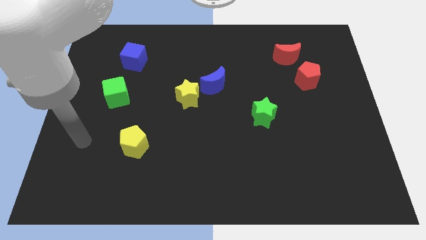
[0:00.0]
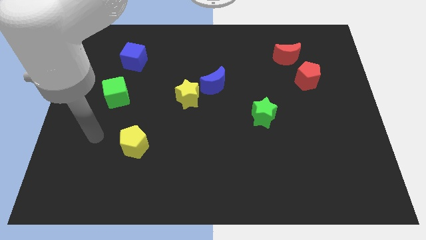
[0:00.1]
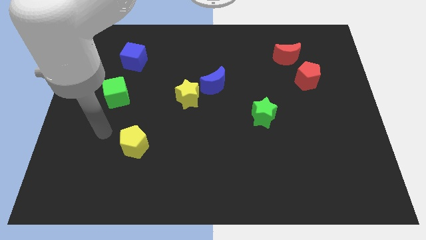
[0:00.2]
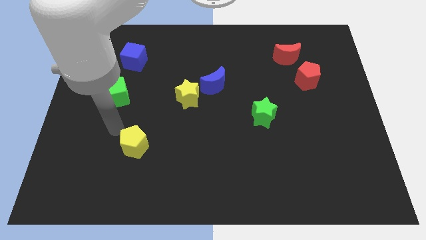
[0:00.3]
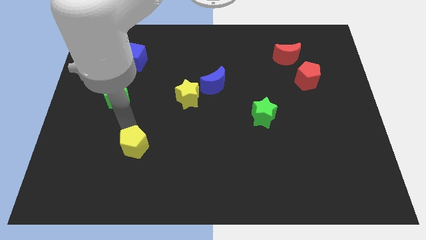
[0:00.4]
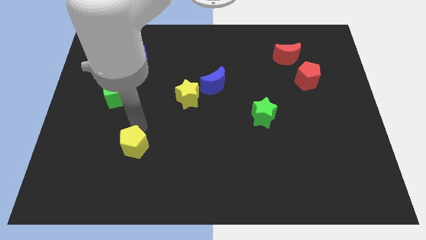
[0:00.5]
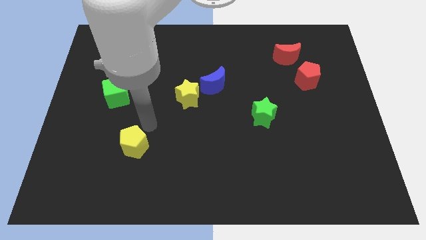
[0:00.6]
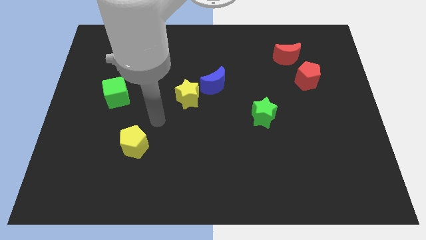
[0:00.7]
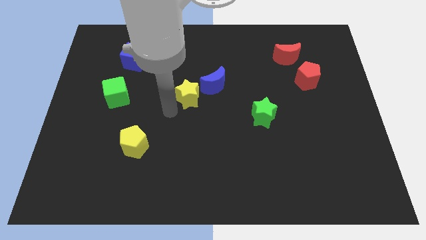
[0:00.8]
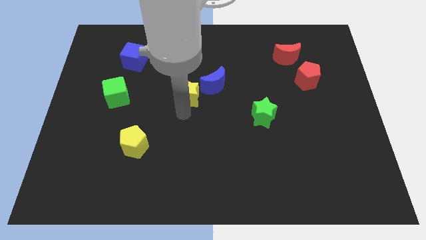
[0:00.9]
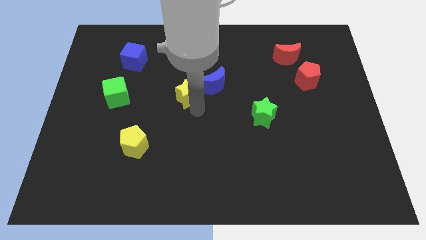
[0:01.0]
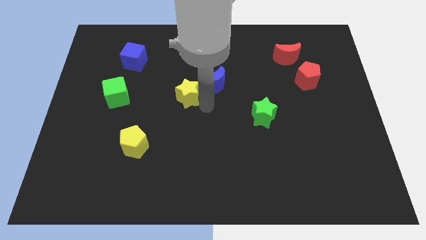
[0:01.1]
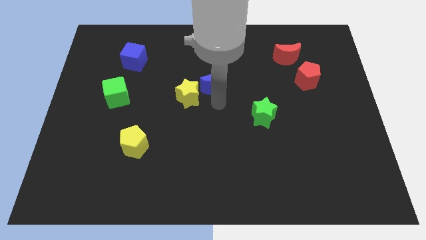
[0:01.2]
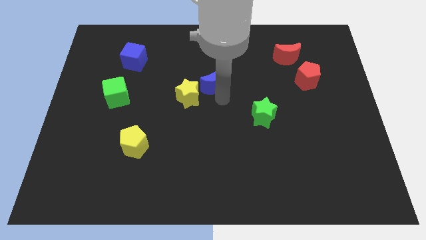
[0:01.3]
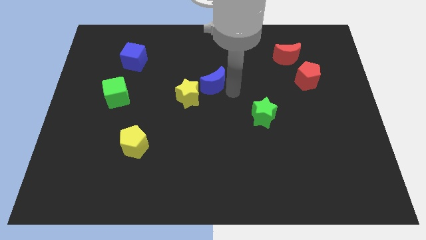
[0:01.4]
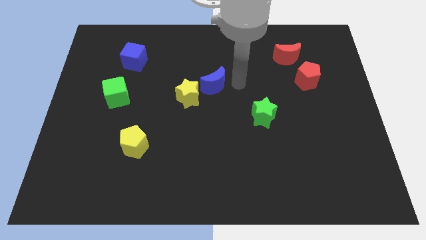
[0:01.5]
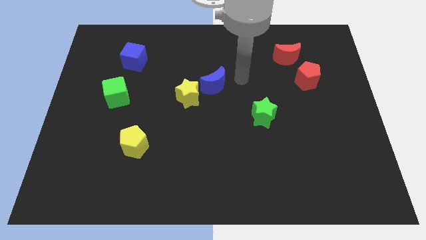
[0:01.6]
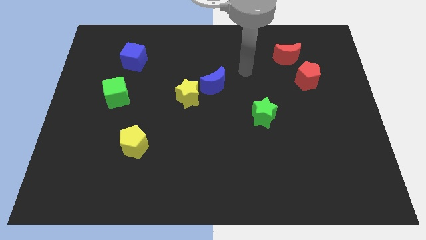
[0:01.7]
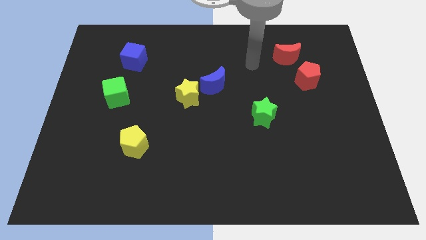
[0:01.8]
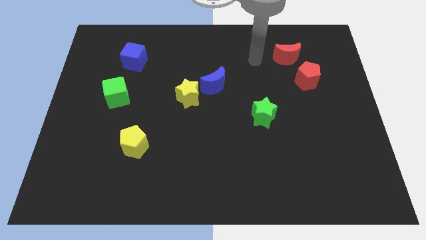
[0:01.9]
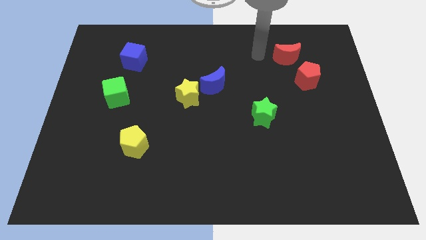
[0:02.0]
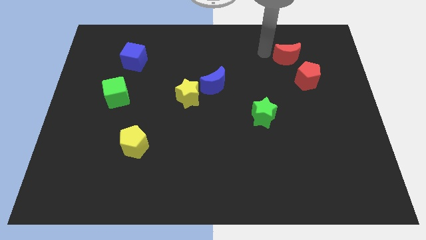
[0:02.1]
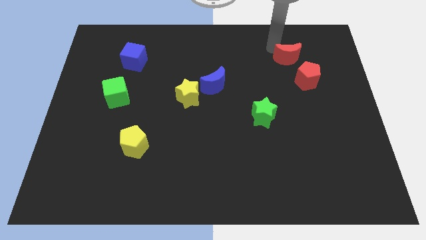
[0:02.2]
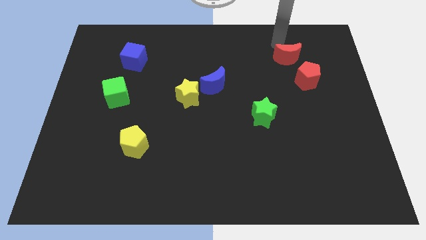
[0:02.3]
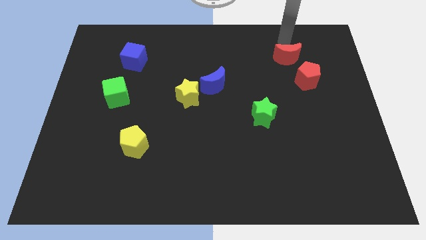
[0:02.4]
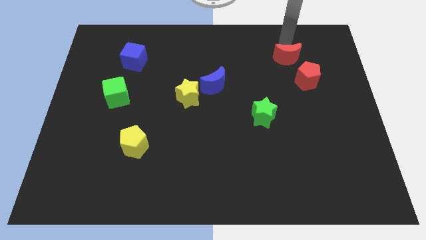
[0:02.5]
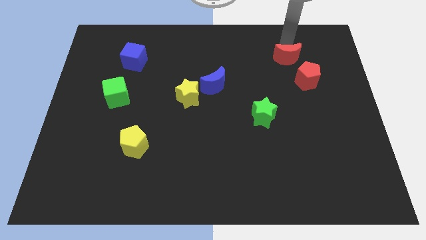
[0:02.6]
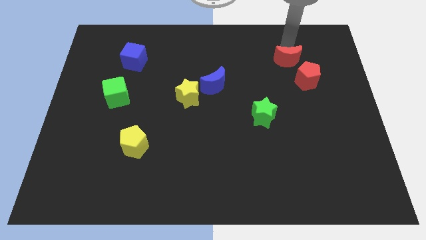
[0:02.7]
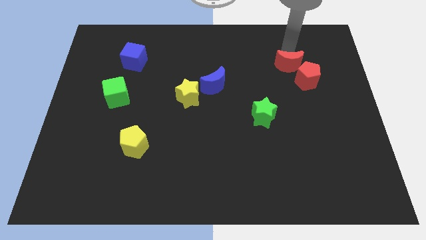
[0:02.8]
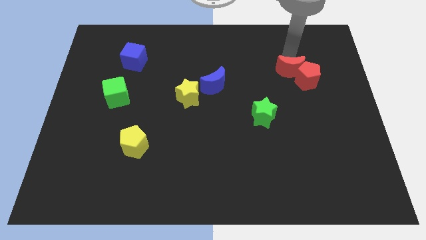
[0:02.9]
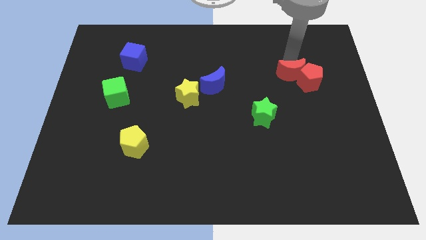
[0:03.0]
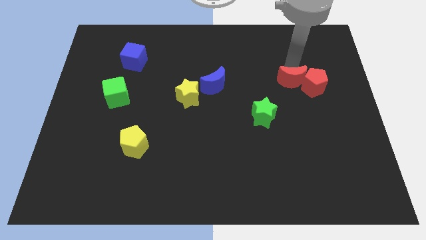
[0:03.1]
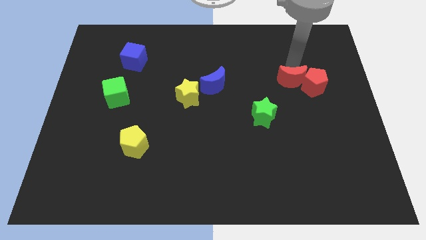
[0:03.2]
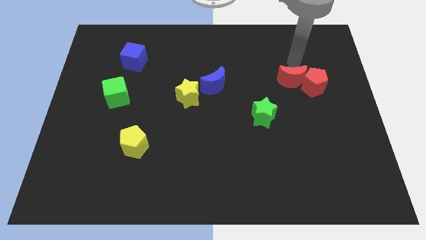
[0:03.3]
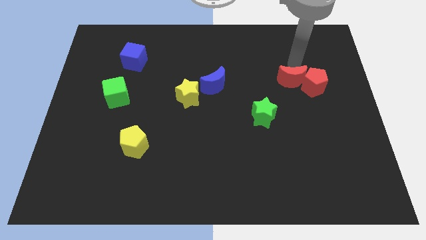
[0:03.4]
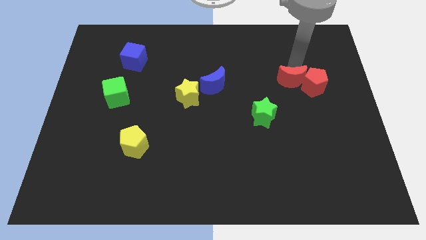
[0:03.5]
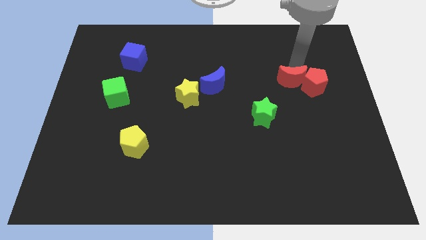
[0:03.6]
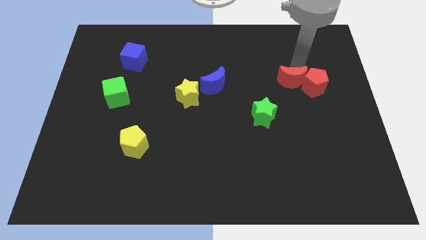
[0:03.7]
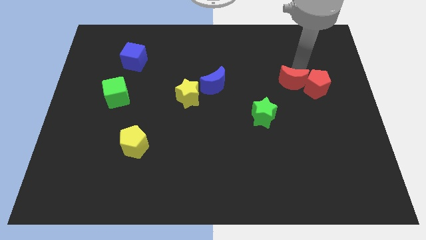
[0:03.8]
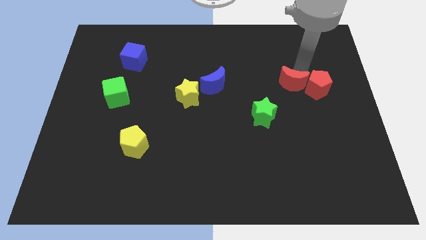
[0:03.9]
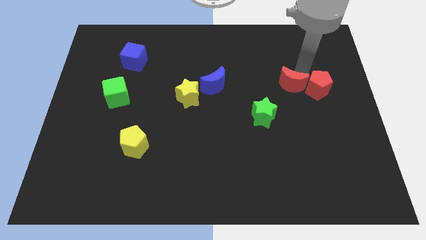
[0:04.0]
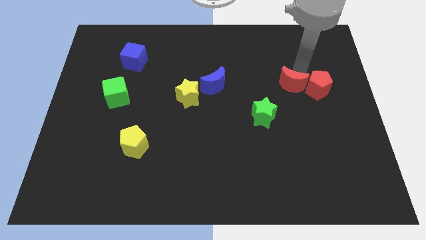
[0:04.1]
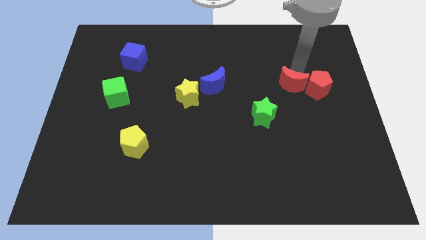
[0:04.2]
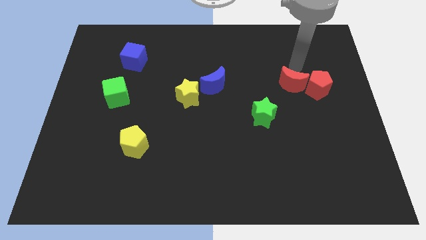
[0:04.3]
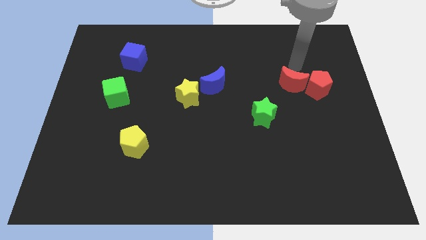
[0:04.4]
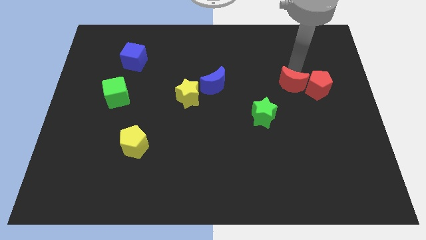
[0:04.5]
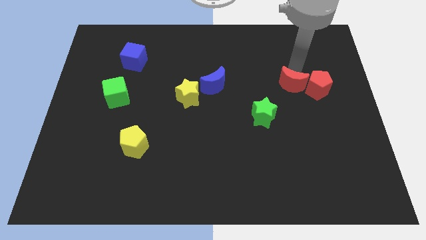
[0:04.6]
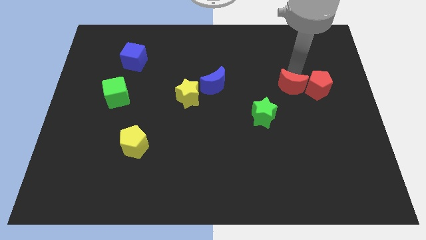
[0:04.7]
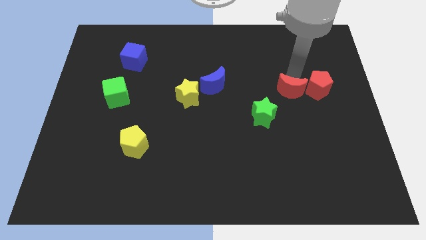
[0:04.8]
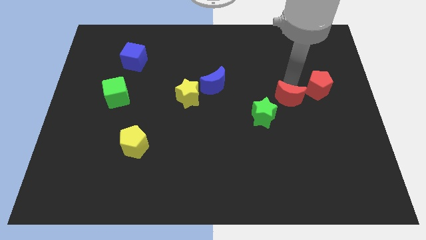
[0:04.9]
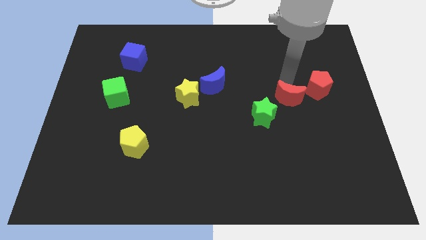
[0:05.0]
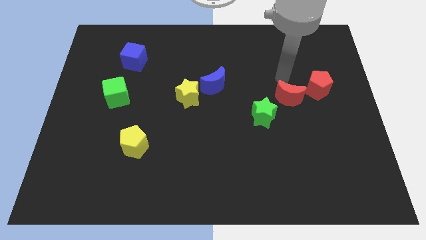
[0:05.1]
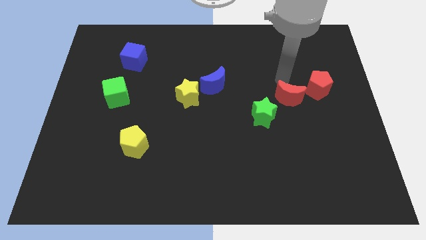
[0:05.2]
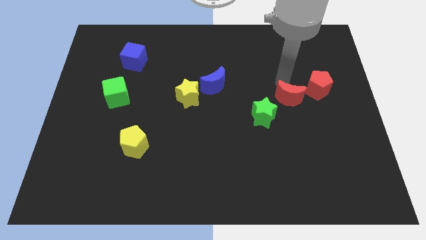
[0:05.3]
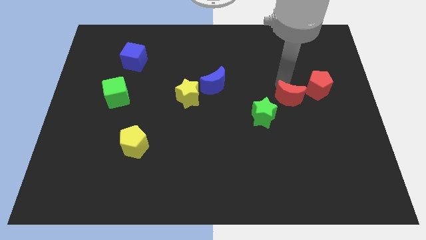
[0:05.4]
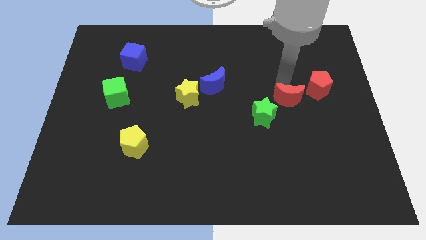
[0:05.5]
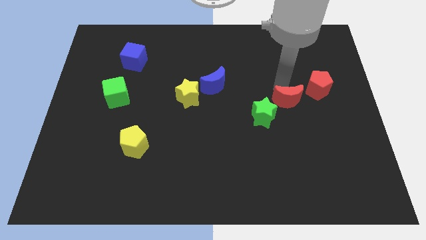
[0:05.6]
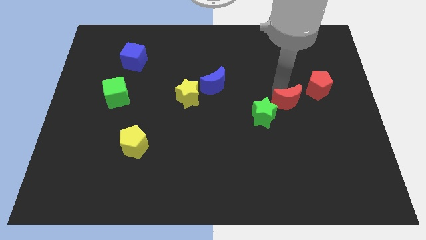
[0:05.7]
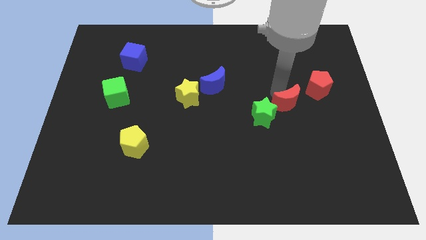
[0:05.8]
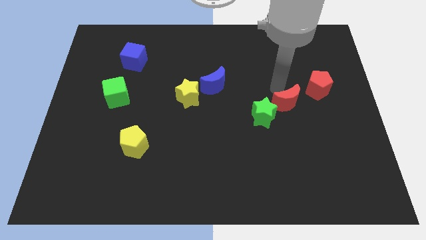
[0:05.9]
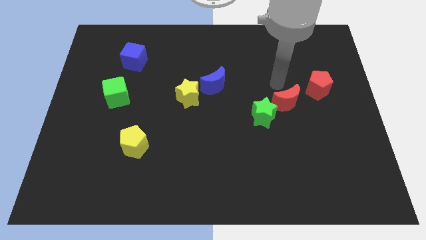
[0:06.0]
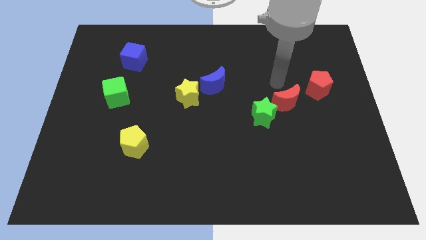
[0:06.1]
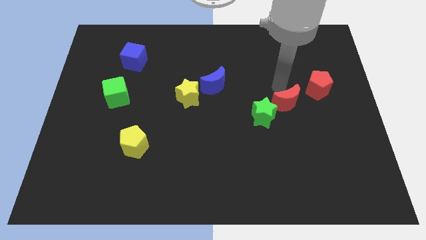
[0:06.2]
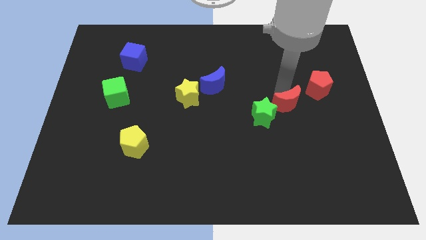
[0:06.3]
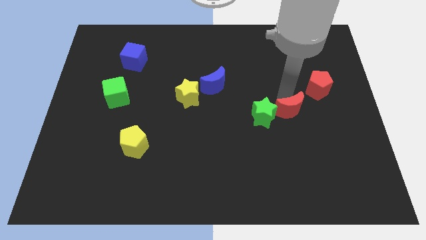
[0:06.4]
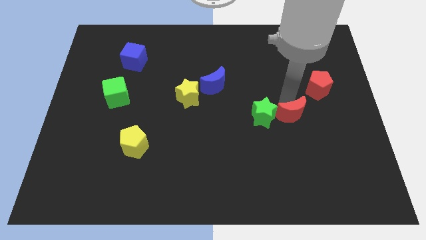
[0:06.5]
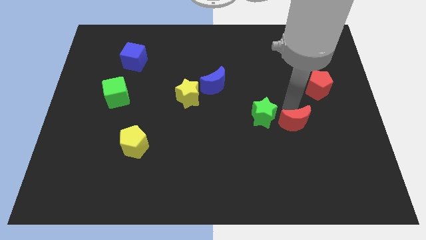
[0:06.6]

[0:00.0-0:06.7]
move the red moon downwards

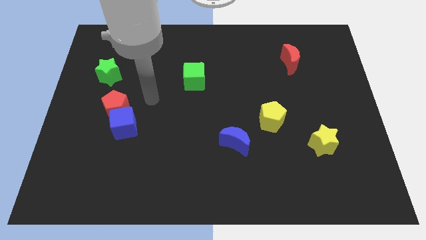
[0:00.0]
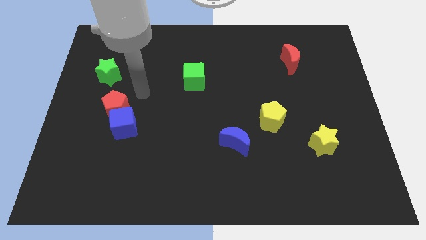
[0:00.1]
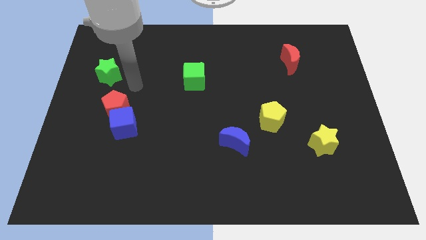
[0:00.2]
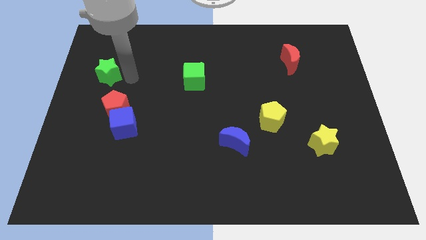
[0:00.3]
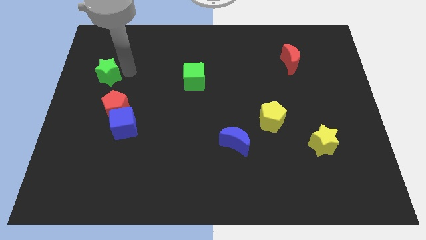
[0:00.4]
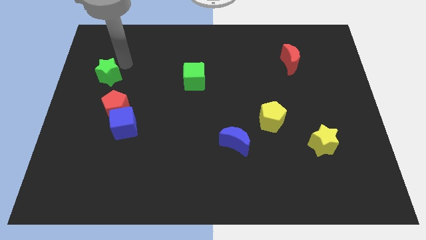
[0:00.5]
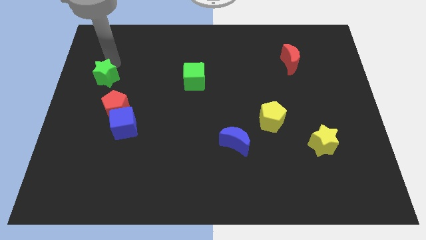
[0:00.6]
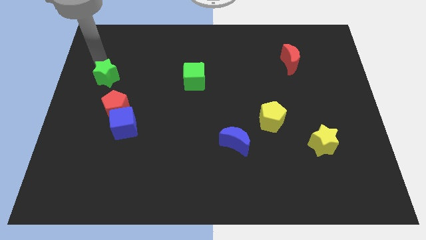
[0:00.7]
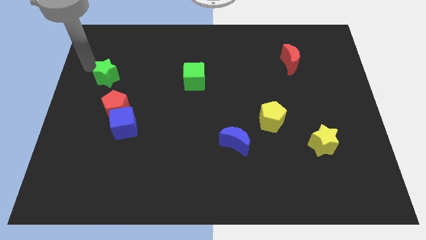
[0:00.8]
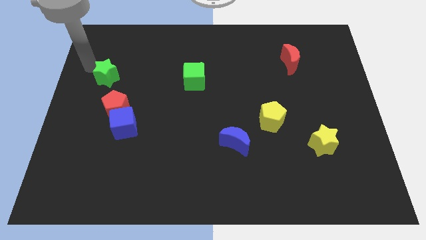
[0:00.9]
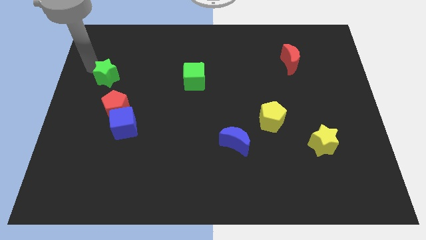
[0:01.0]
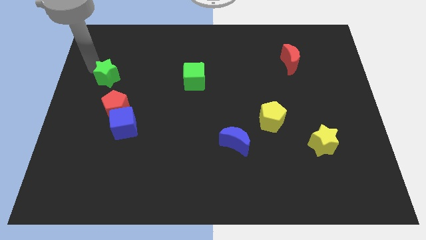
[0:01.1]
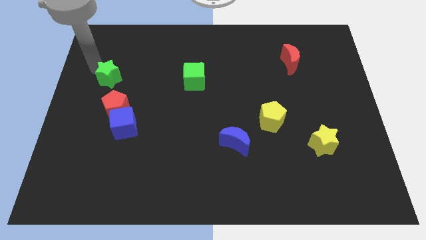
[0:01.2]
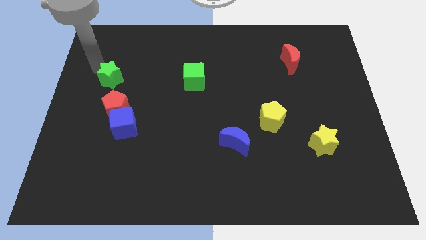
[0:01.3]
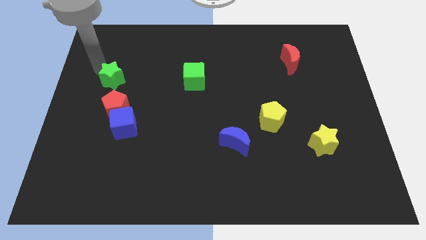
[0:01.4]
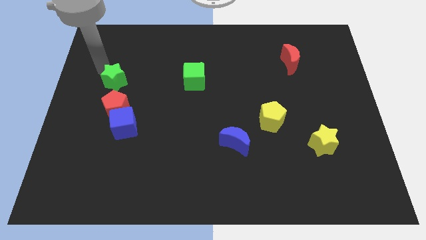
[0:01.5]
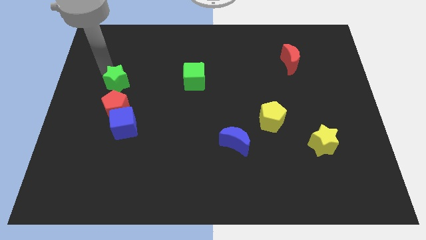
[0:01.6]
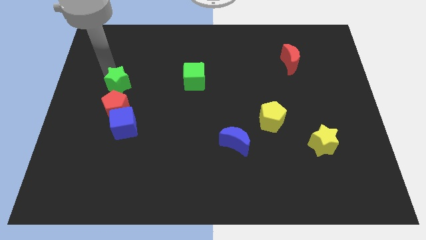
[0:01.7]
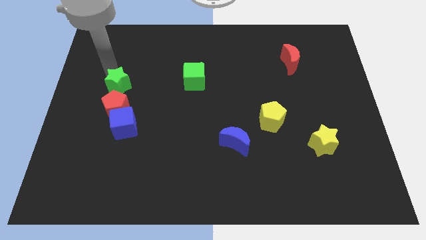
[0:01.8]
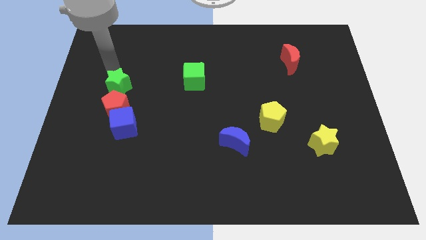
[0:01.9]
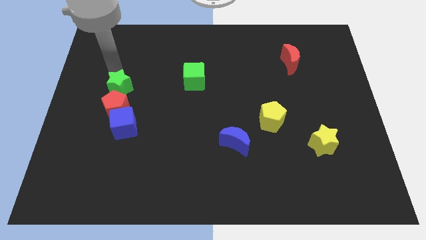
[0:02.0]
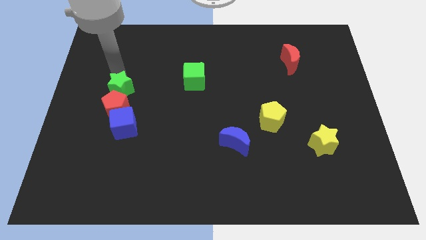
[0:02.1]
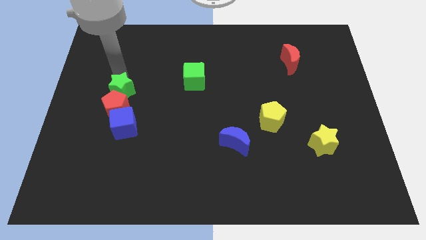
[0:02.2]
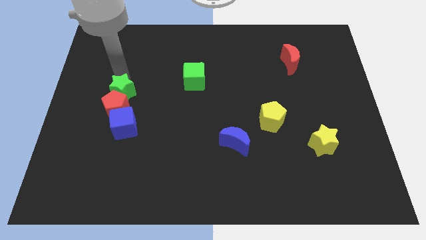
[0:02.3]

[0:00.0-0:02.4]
slide the green star slightly down and then to the right
